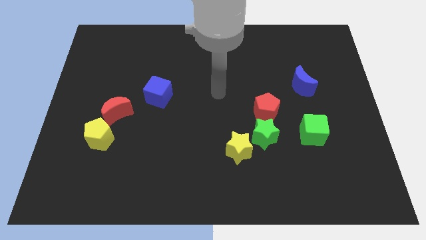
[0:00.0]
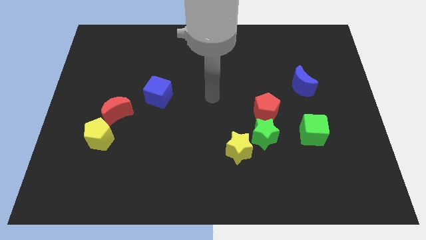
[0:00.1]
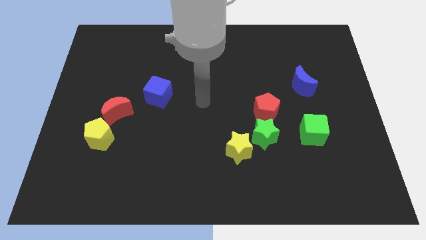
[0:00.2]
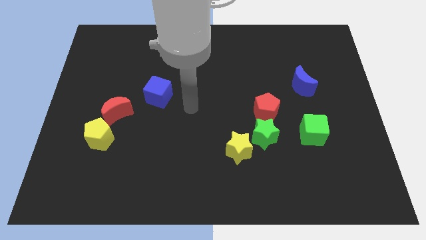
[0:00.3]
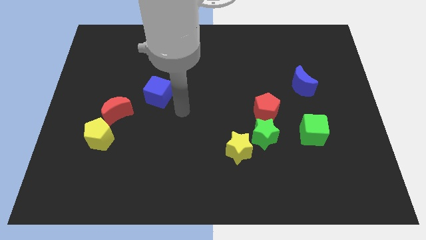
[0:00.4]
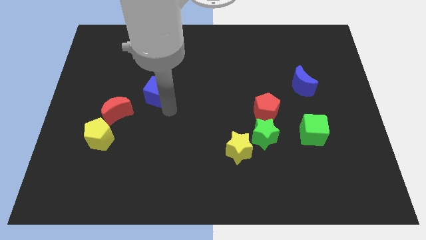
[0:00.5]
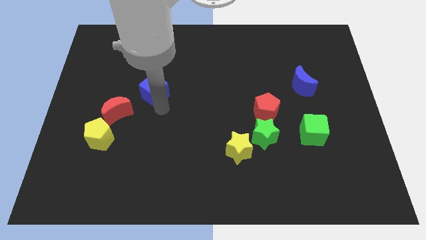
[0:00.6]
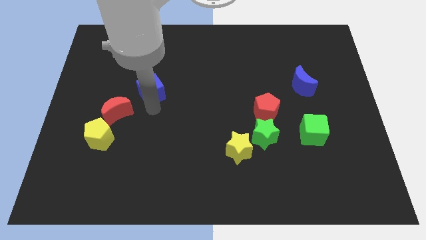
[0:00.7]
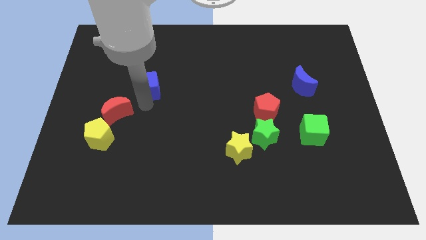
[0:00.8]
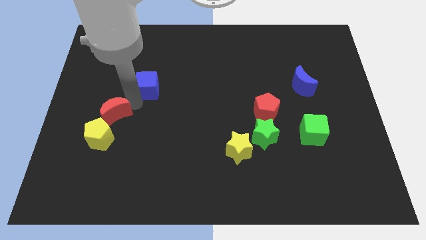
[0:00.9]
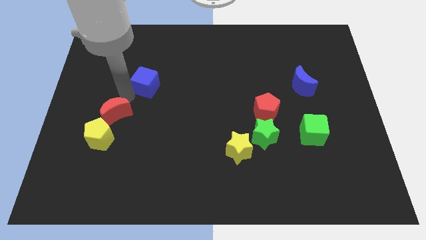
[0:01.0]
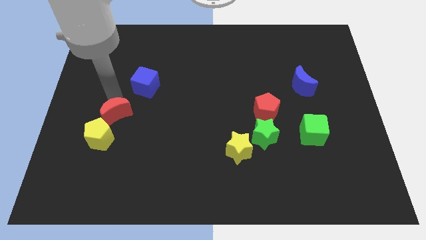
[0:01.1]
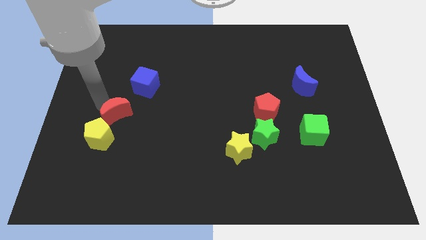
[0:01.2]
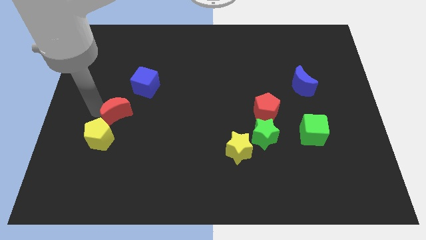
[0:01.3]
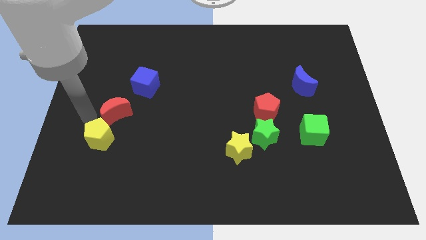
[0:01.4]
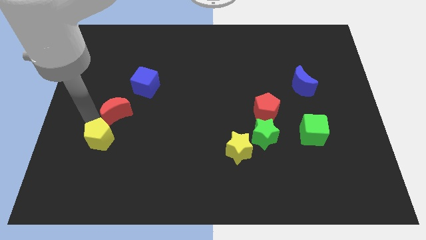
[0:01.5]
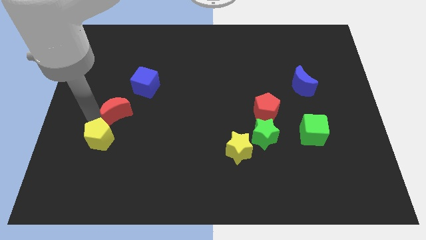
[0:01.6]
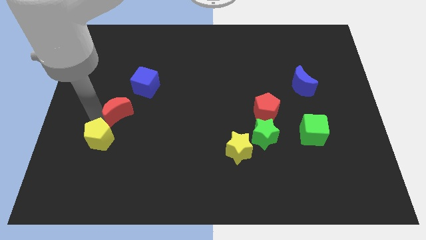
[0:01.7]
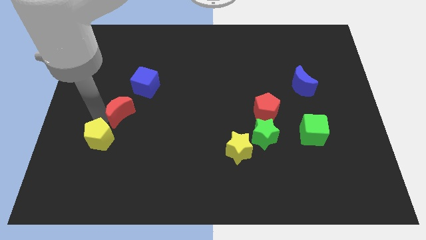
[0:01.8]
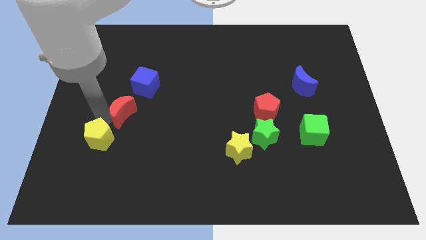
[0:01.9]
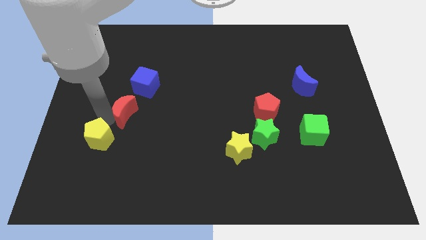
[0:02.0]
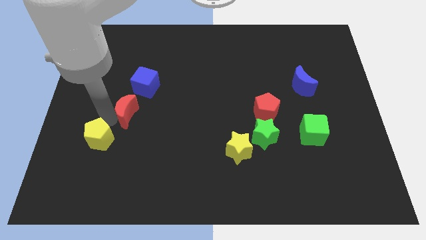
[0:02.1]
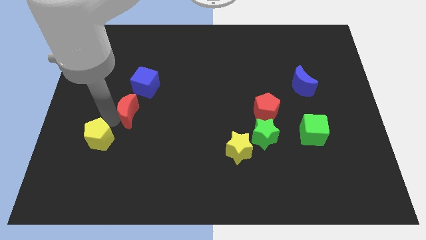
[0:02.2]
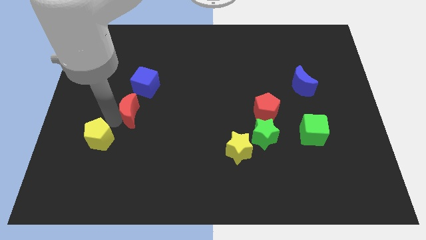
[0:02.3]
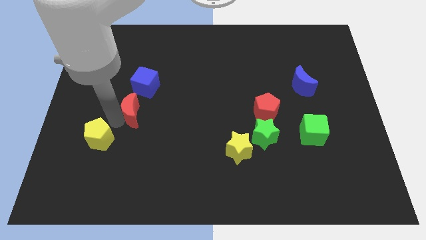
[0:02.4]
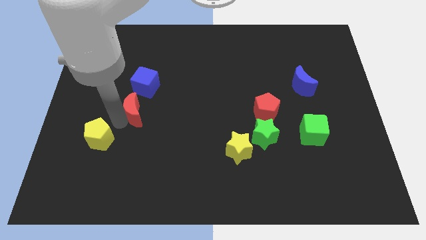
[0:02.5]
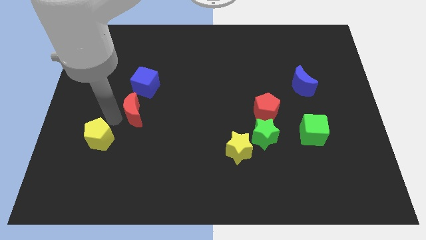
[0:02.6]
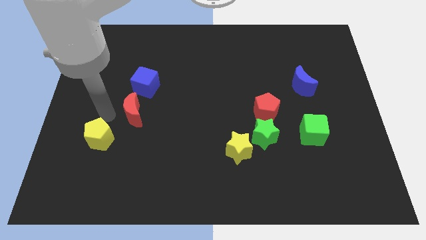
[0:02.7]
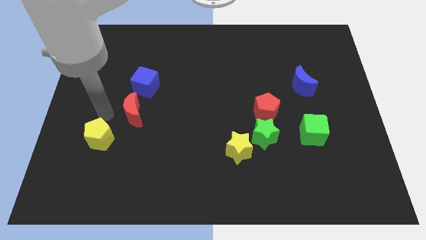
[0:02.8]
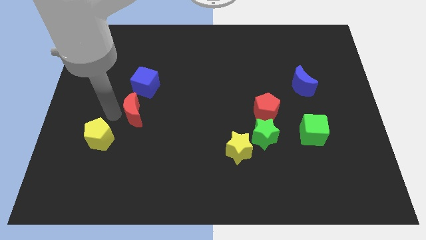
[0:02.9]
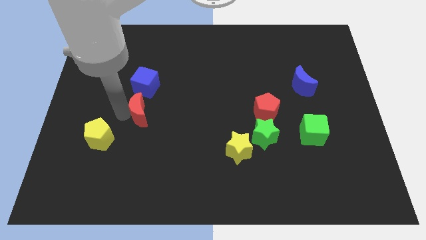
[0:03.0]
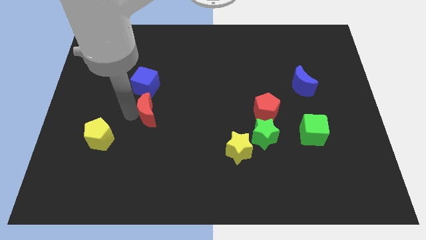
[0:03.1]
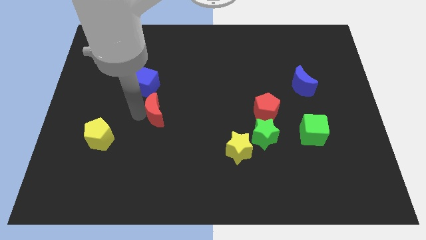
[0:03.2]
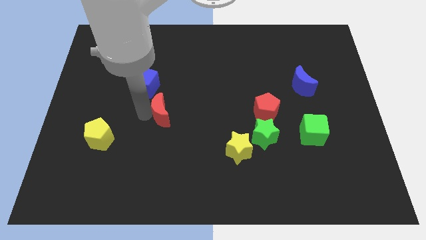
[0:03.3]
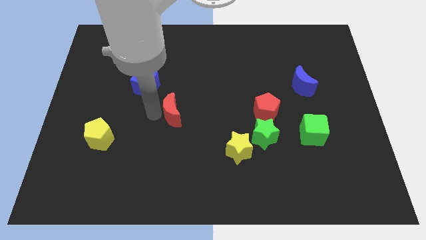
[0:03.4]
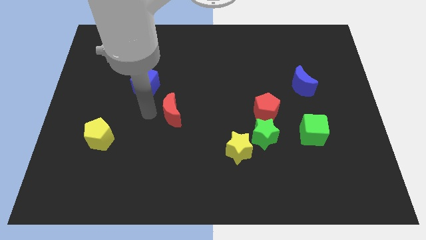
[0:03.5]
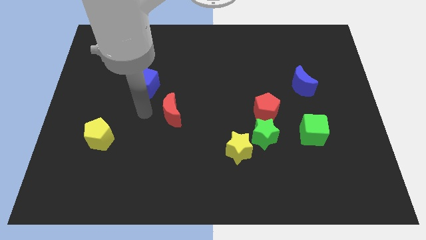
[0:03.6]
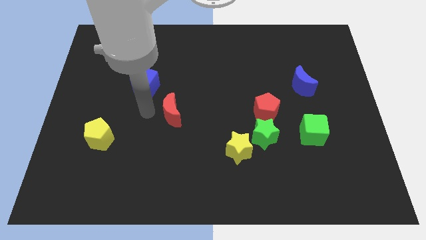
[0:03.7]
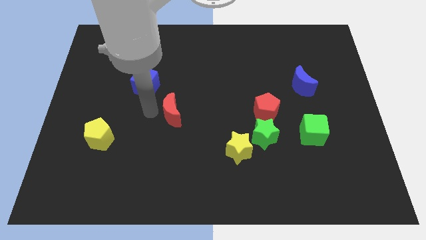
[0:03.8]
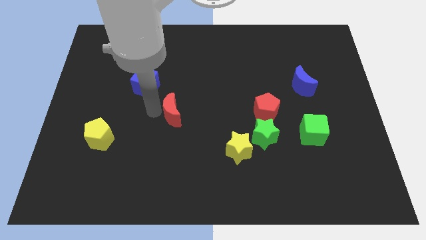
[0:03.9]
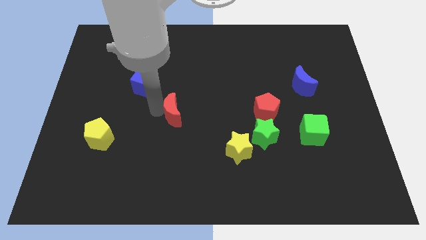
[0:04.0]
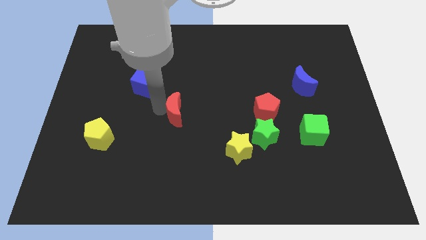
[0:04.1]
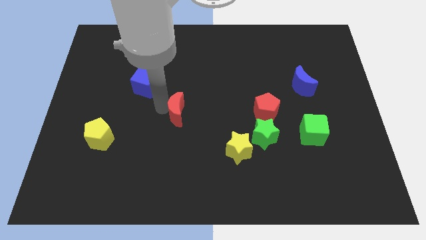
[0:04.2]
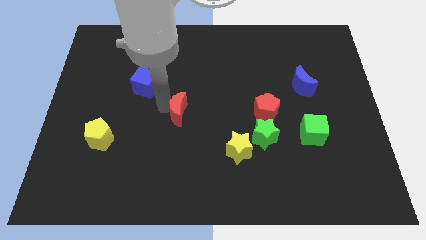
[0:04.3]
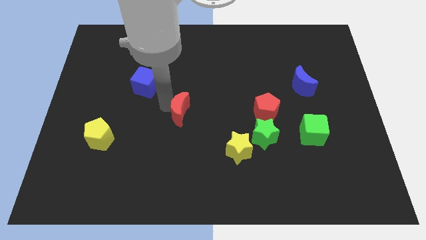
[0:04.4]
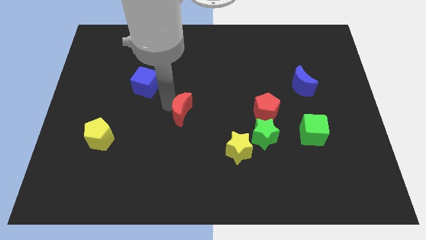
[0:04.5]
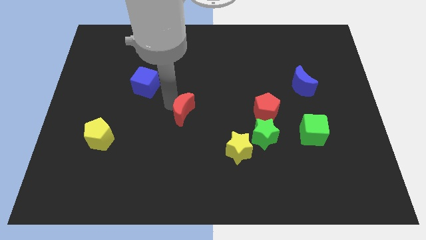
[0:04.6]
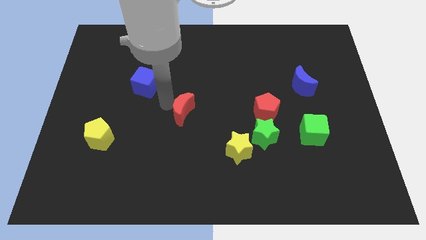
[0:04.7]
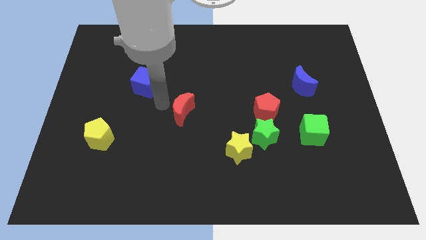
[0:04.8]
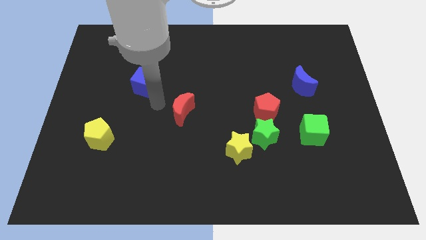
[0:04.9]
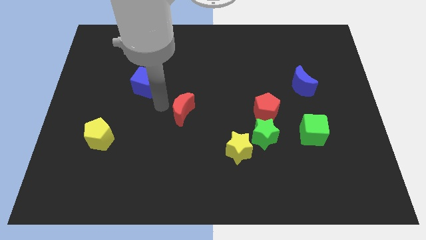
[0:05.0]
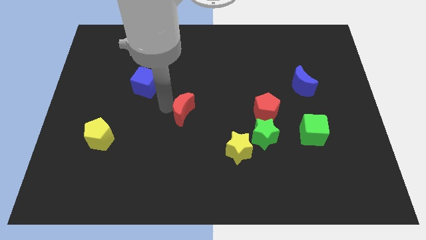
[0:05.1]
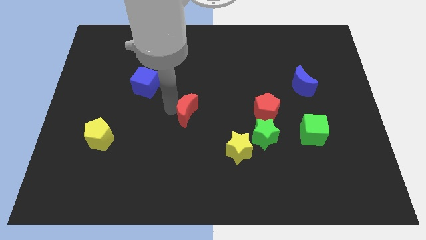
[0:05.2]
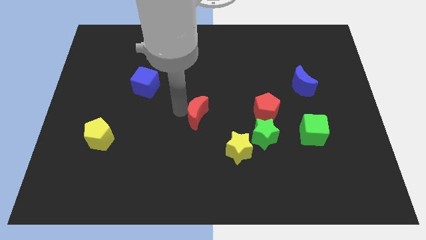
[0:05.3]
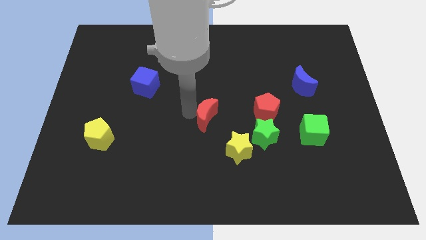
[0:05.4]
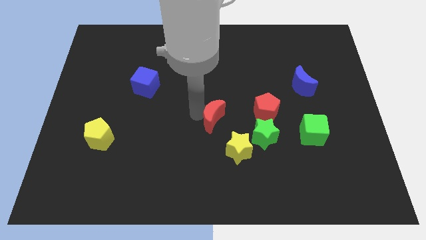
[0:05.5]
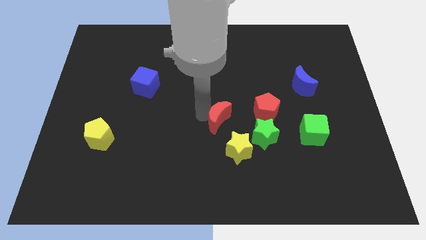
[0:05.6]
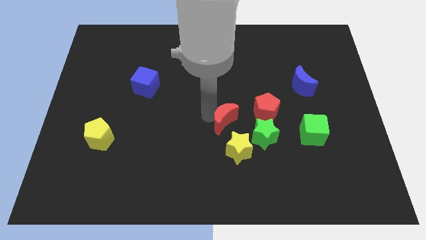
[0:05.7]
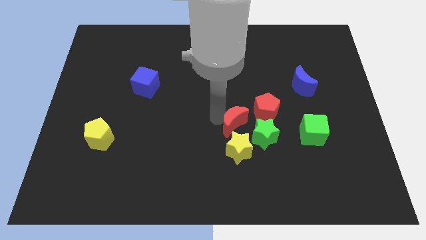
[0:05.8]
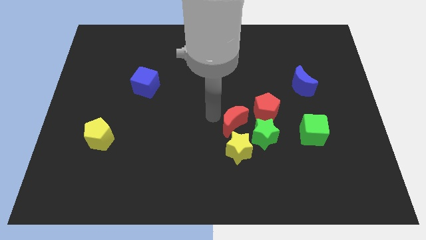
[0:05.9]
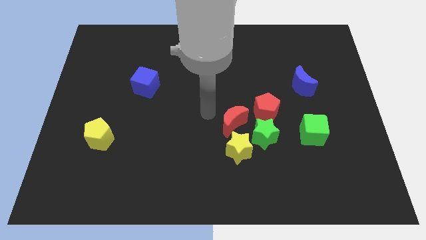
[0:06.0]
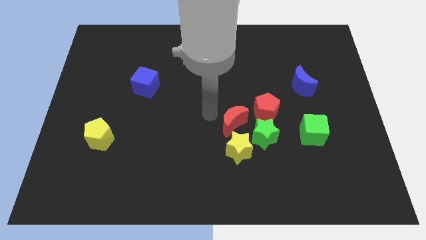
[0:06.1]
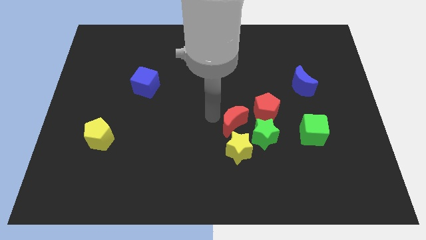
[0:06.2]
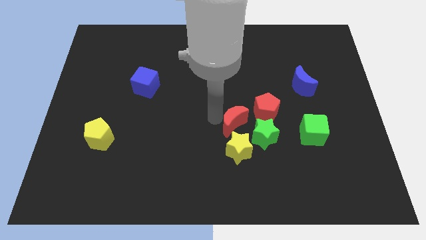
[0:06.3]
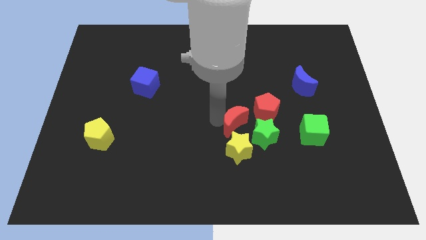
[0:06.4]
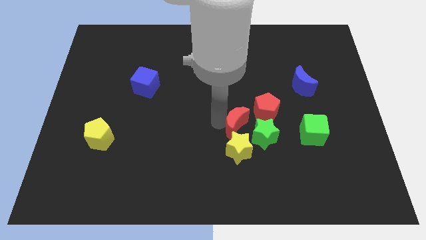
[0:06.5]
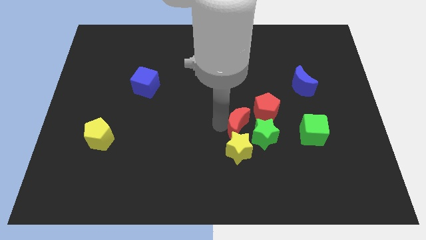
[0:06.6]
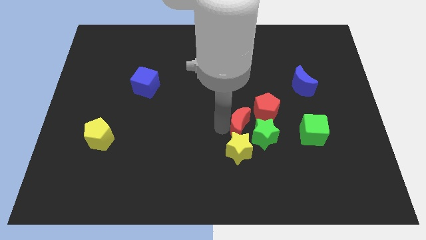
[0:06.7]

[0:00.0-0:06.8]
slide the red moon to the green star
